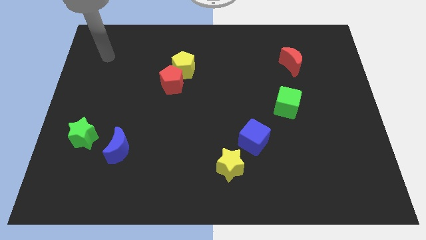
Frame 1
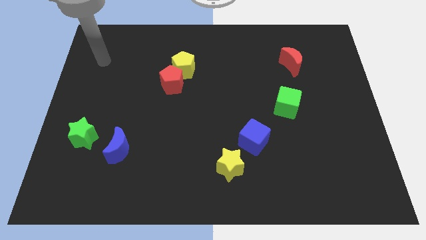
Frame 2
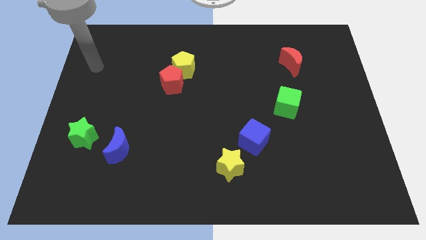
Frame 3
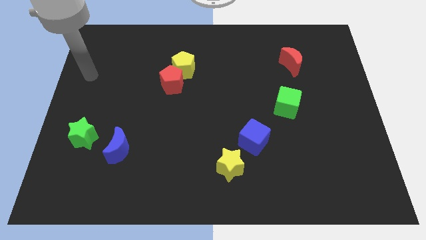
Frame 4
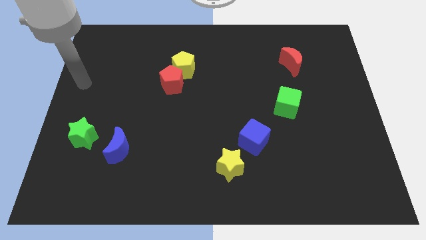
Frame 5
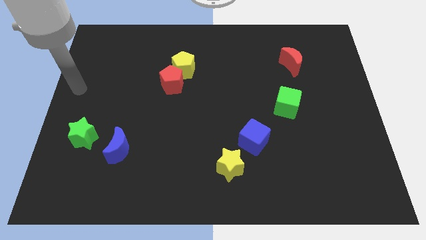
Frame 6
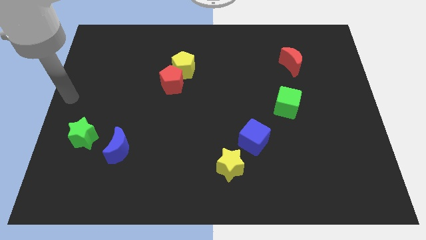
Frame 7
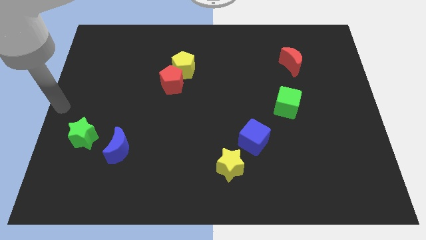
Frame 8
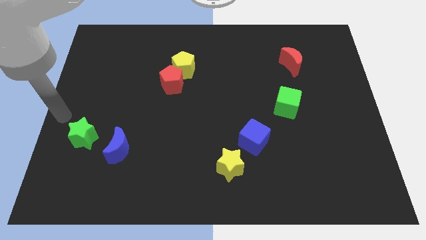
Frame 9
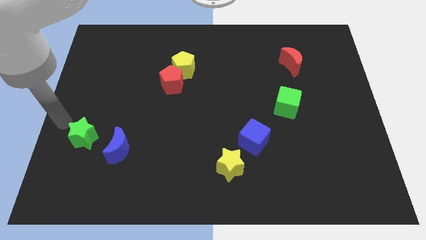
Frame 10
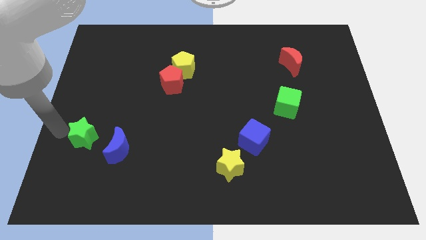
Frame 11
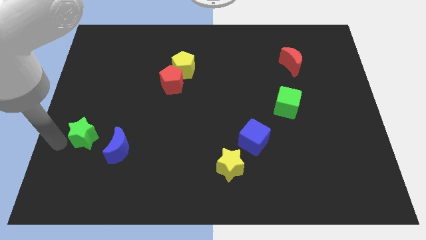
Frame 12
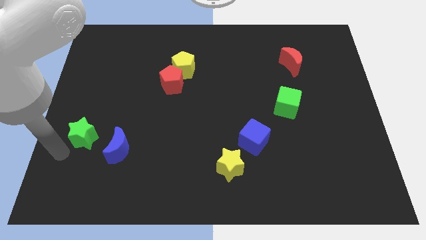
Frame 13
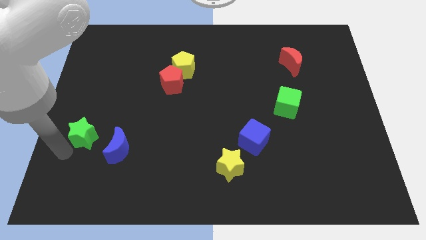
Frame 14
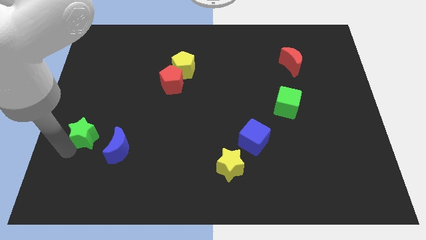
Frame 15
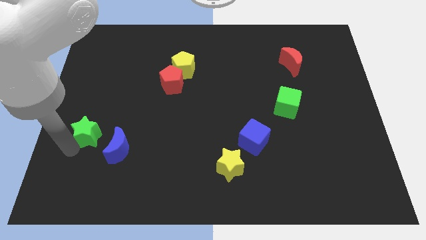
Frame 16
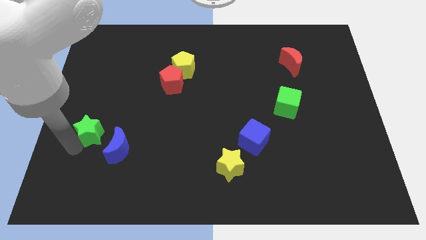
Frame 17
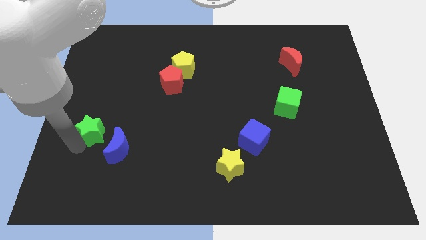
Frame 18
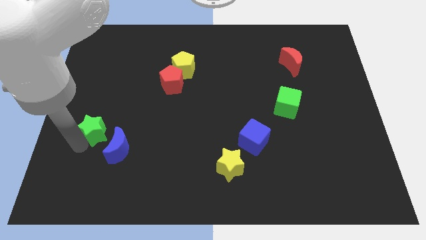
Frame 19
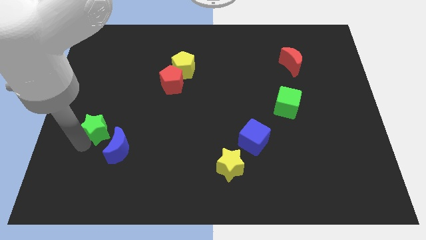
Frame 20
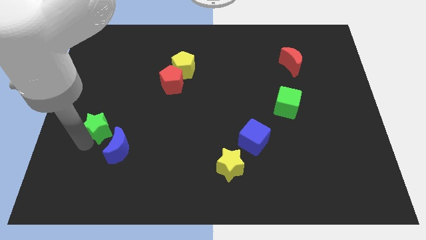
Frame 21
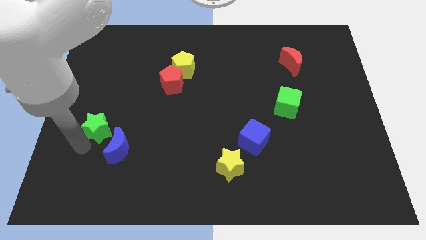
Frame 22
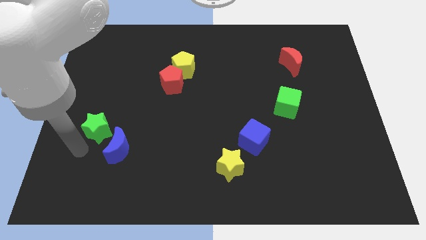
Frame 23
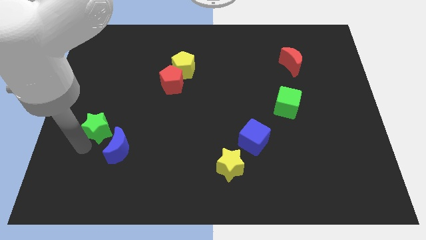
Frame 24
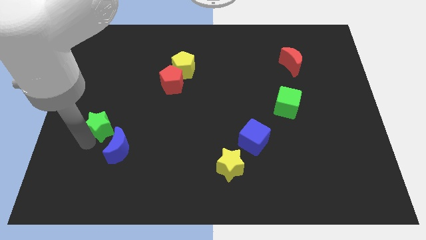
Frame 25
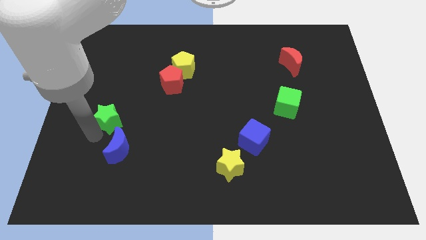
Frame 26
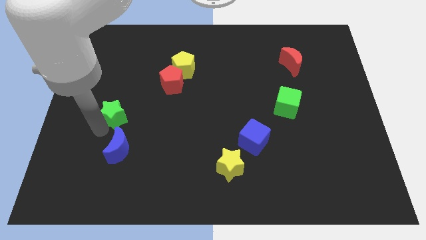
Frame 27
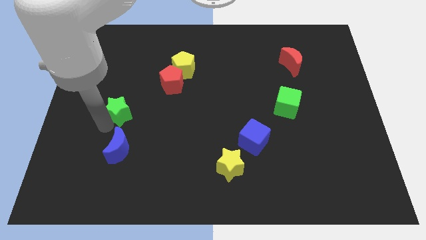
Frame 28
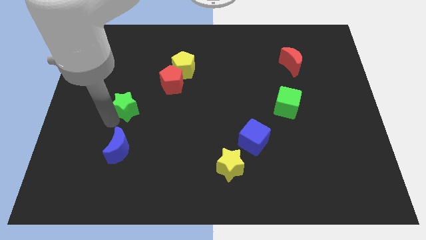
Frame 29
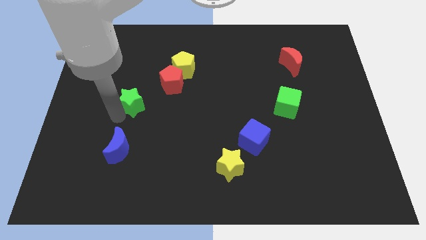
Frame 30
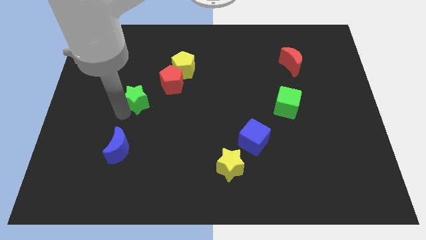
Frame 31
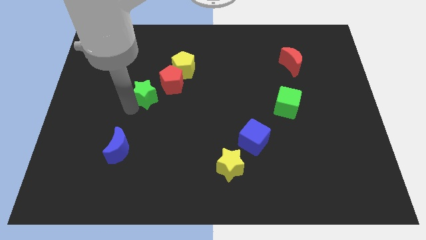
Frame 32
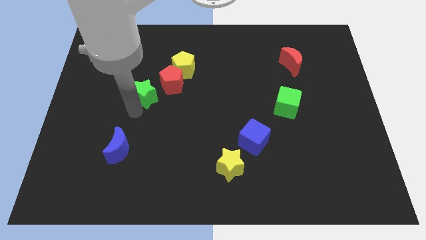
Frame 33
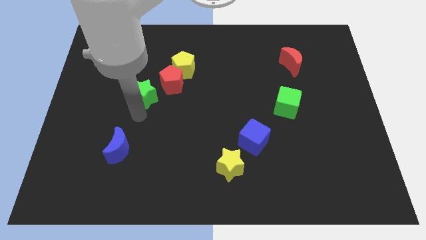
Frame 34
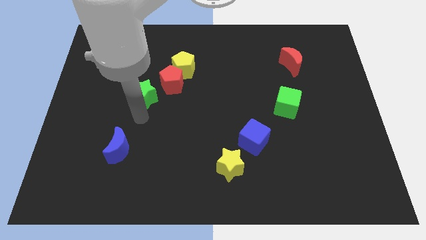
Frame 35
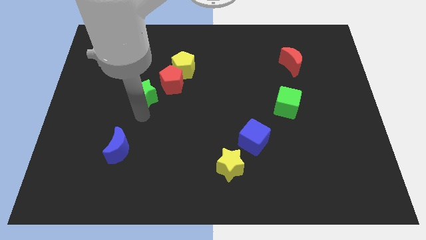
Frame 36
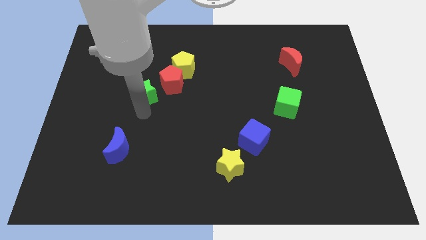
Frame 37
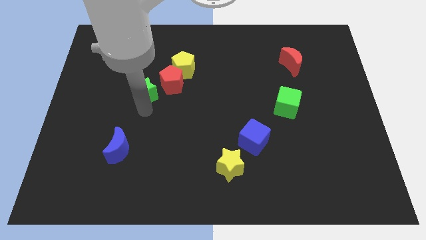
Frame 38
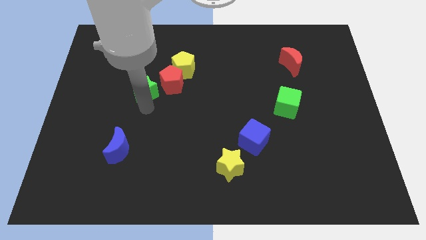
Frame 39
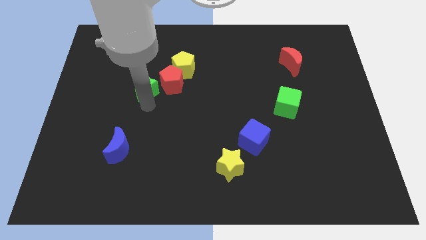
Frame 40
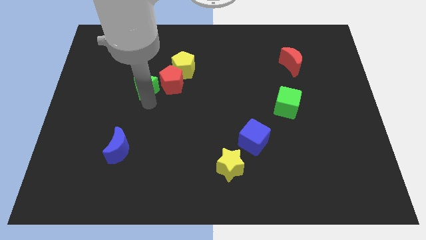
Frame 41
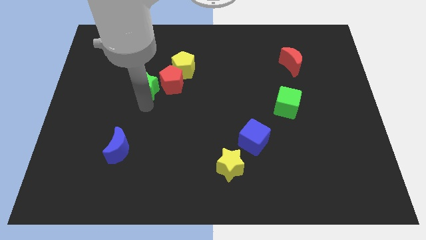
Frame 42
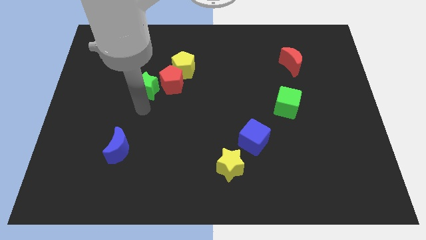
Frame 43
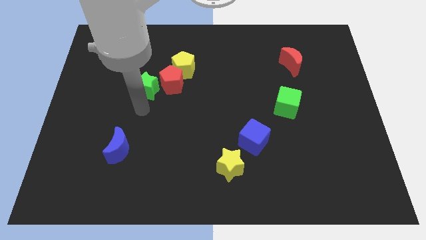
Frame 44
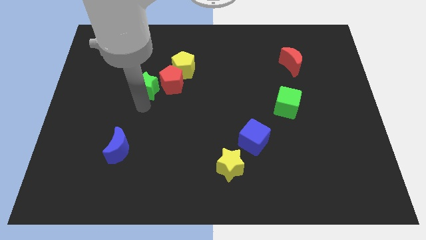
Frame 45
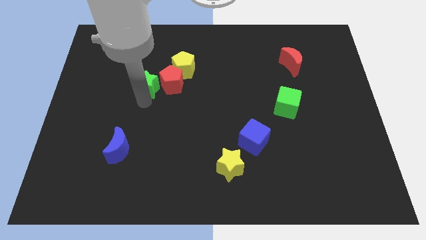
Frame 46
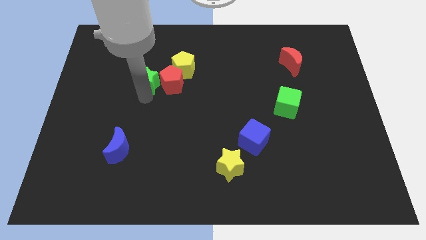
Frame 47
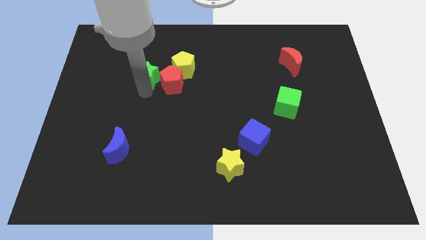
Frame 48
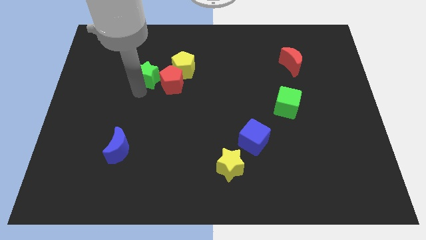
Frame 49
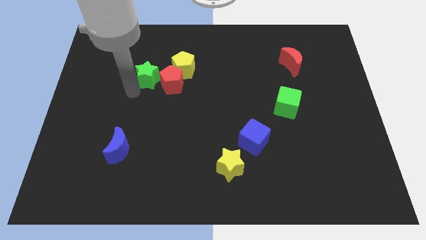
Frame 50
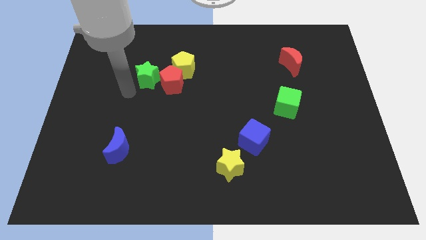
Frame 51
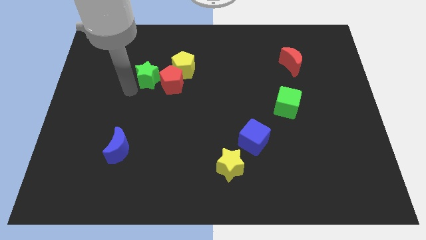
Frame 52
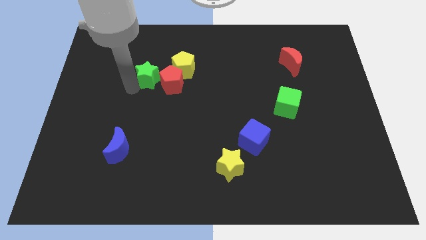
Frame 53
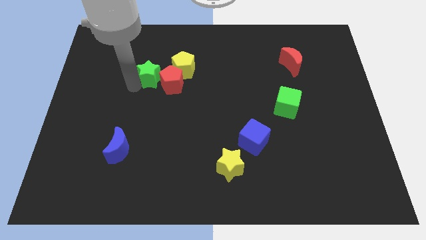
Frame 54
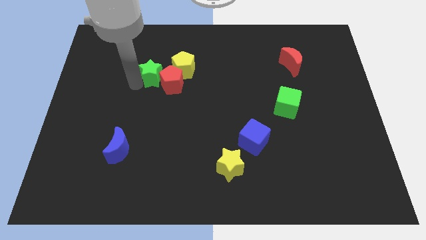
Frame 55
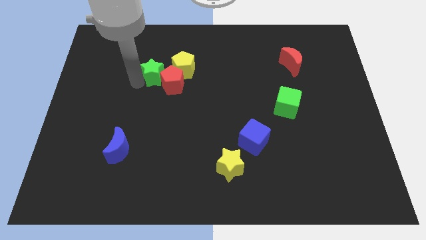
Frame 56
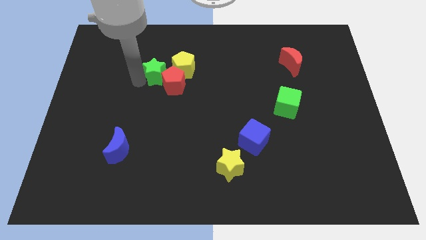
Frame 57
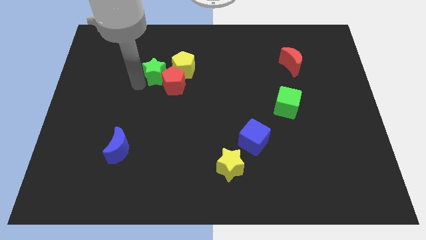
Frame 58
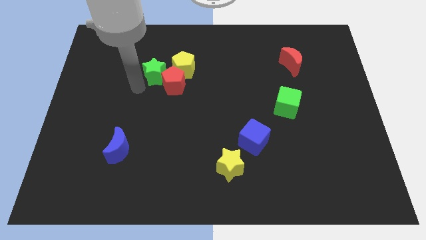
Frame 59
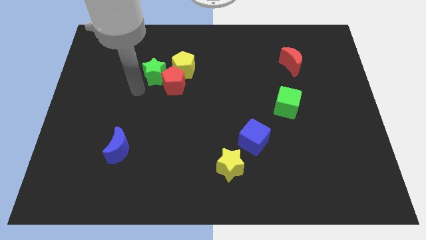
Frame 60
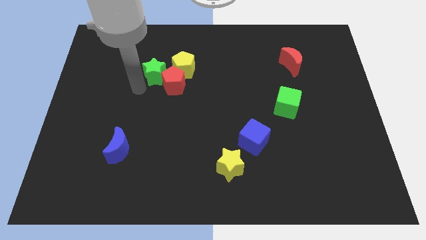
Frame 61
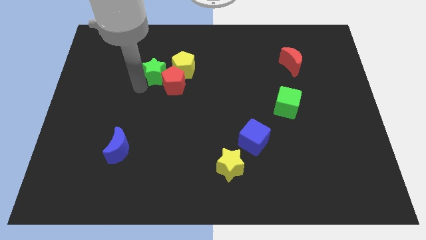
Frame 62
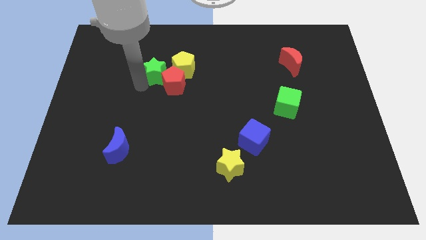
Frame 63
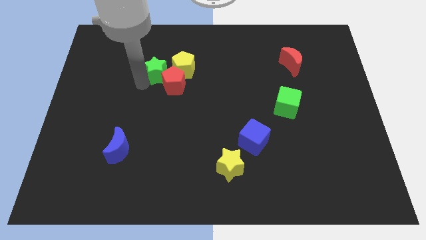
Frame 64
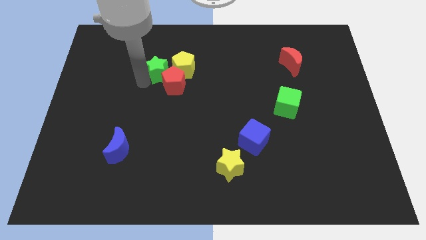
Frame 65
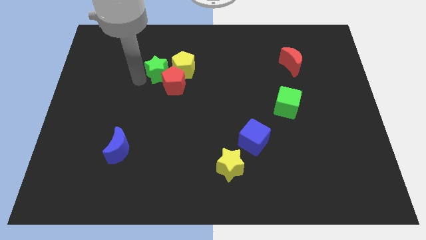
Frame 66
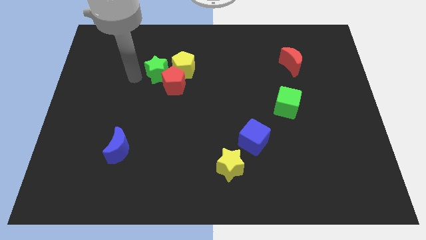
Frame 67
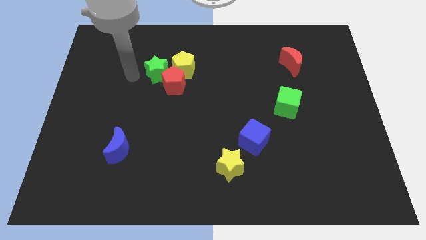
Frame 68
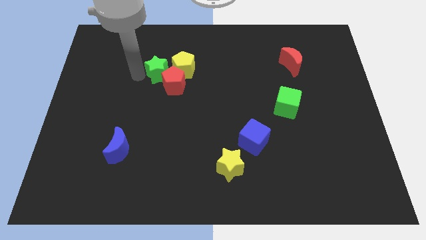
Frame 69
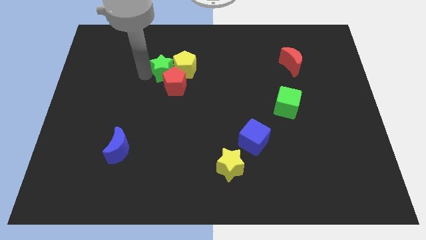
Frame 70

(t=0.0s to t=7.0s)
push the green star towards the yellow pentagon

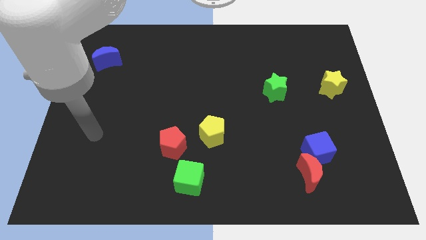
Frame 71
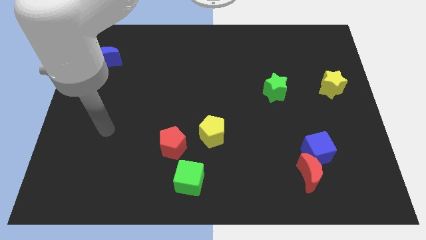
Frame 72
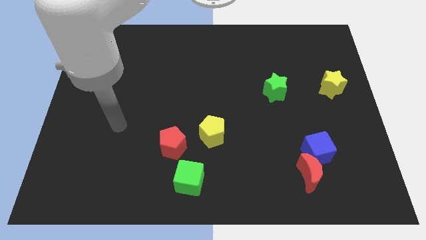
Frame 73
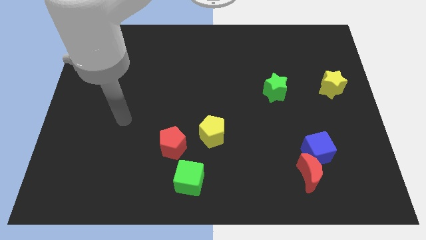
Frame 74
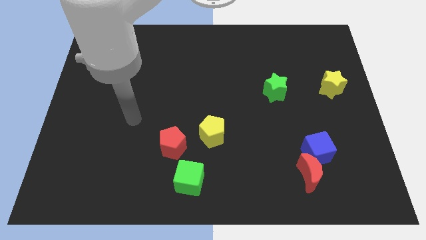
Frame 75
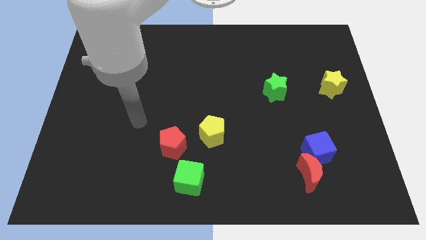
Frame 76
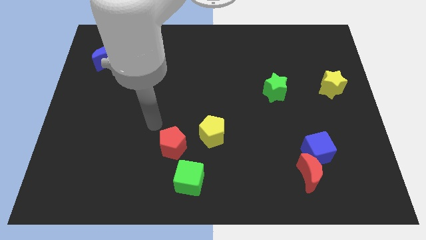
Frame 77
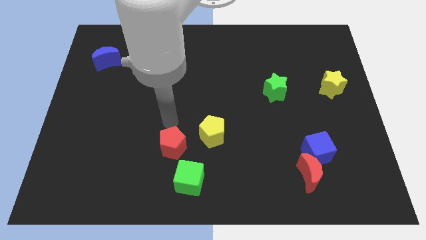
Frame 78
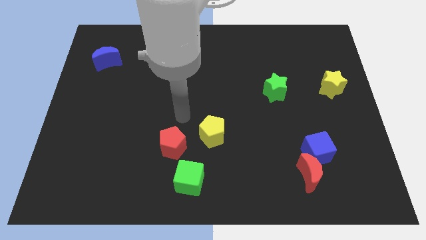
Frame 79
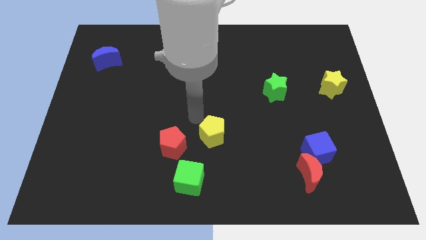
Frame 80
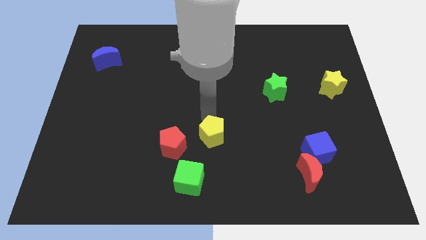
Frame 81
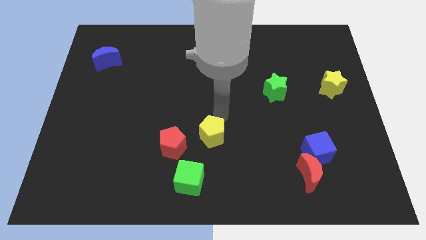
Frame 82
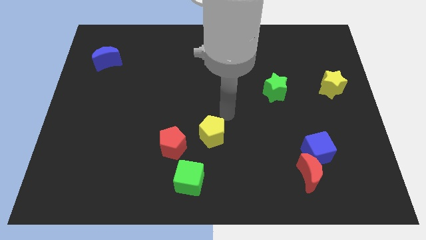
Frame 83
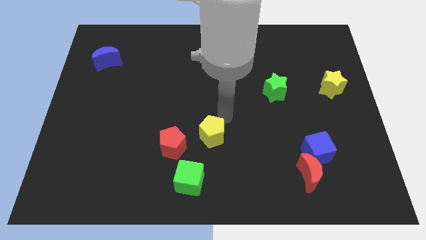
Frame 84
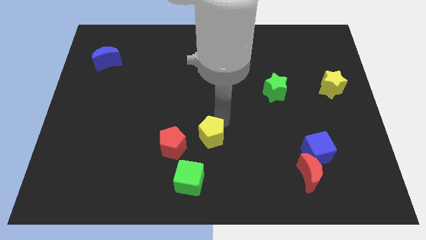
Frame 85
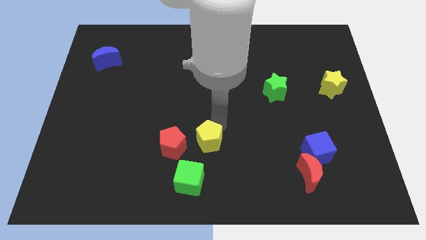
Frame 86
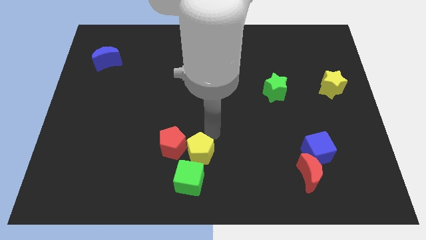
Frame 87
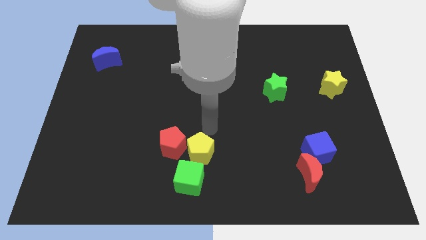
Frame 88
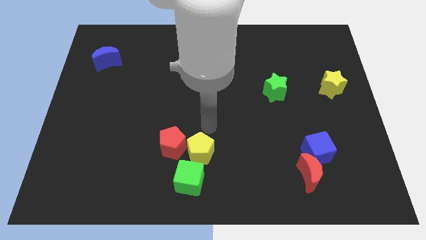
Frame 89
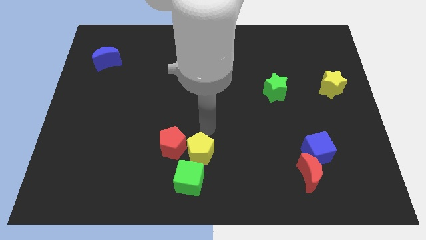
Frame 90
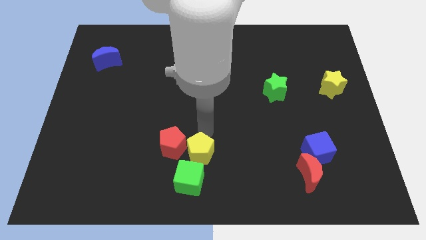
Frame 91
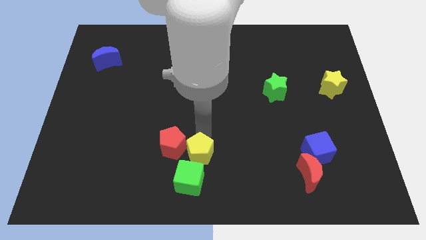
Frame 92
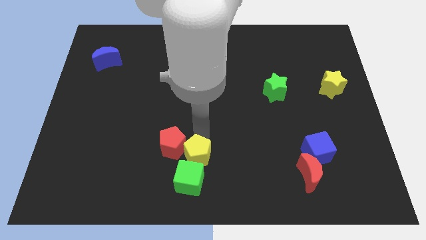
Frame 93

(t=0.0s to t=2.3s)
put the yellow pentagon close to the green cube
